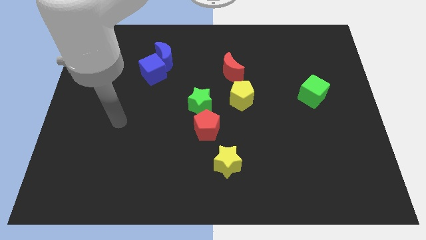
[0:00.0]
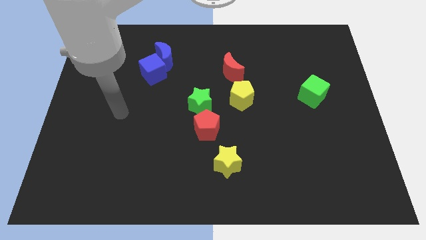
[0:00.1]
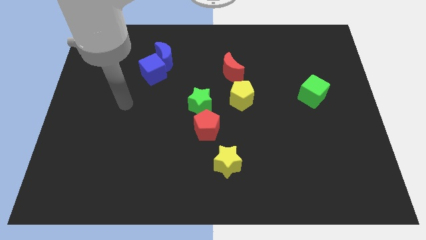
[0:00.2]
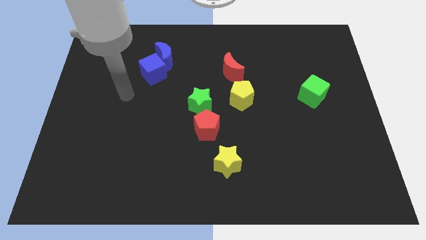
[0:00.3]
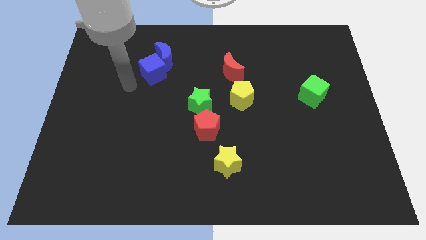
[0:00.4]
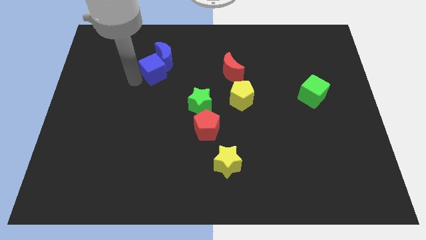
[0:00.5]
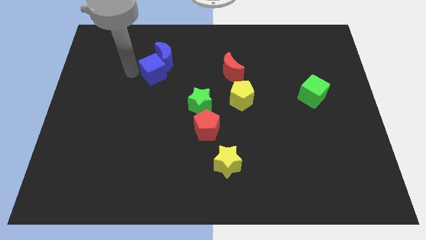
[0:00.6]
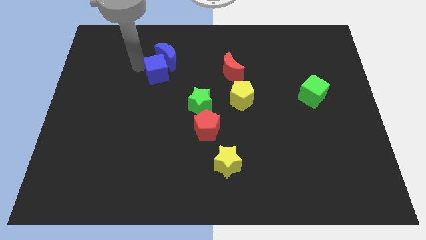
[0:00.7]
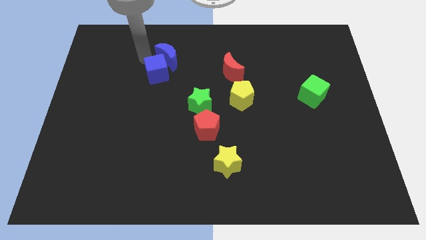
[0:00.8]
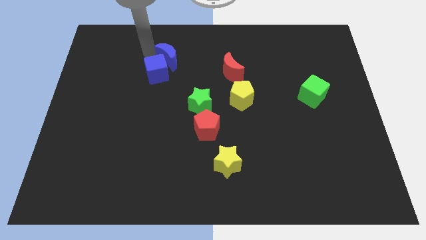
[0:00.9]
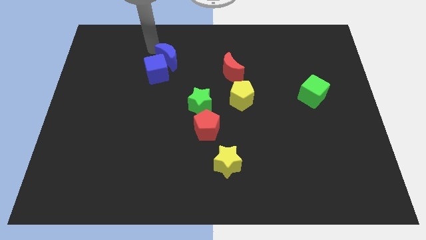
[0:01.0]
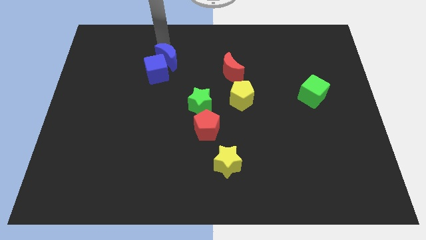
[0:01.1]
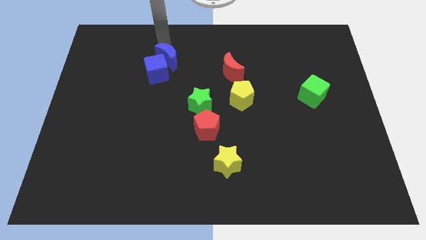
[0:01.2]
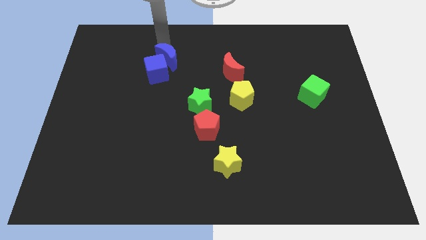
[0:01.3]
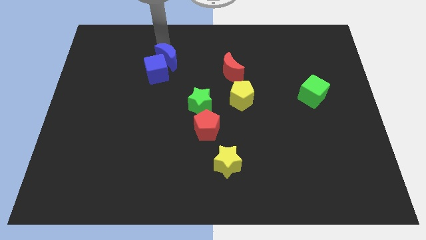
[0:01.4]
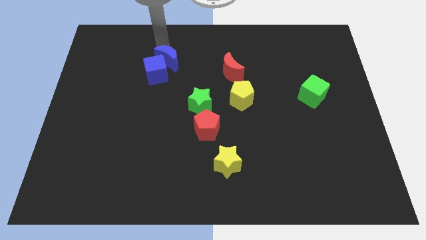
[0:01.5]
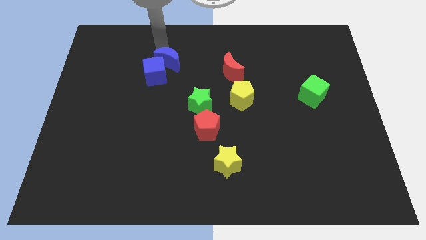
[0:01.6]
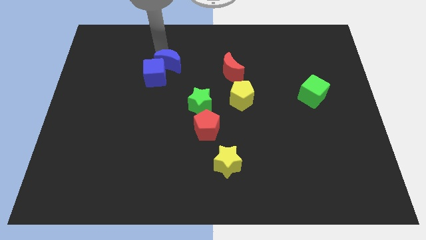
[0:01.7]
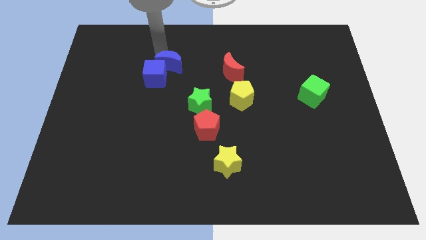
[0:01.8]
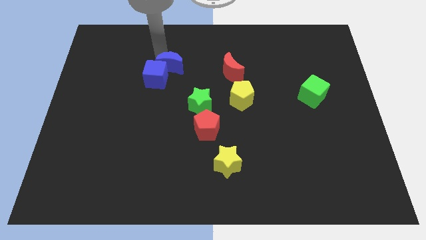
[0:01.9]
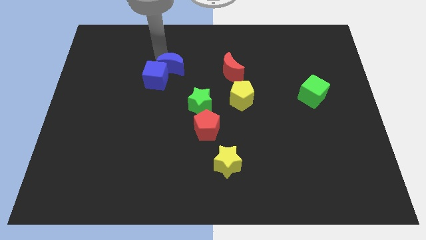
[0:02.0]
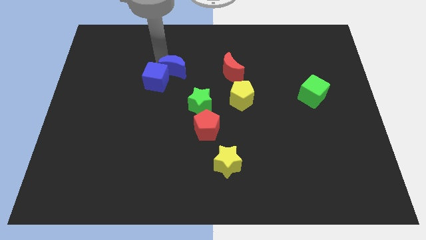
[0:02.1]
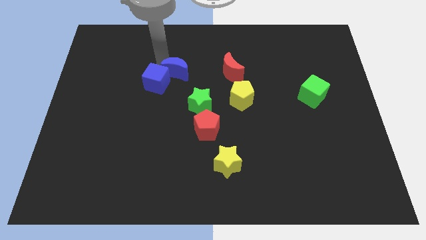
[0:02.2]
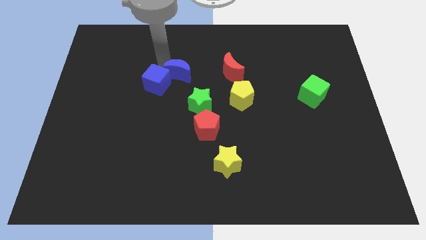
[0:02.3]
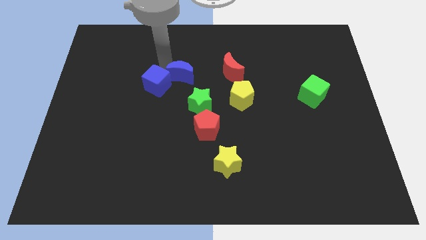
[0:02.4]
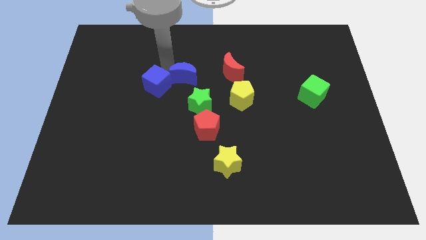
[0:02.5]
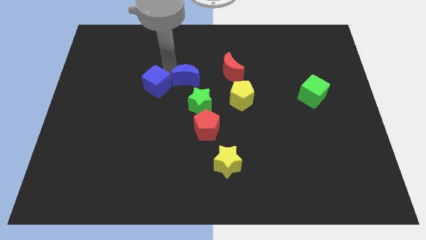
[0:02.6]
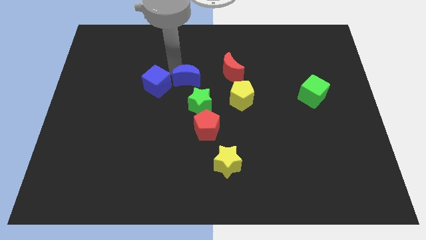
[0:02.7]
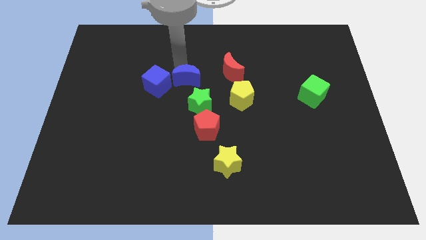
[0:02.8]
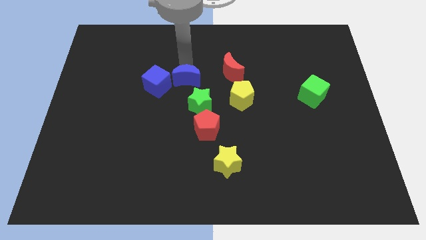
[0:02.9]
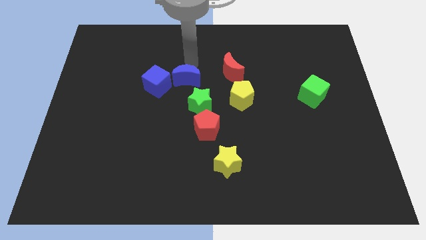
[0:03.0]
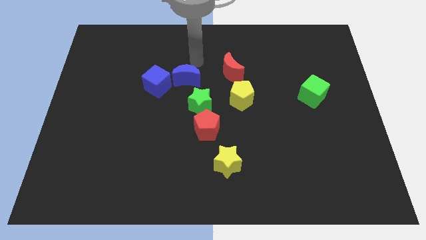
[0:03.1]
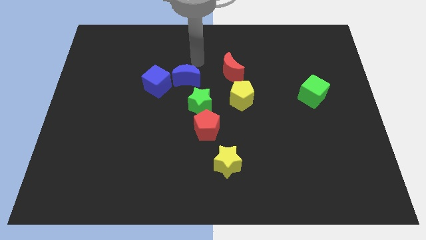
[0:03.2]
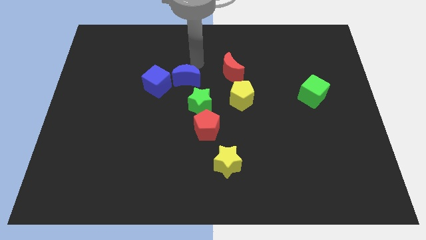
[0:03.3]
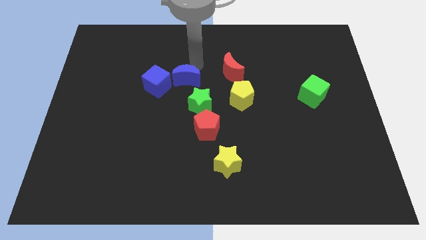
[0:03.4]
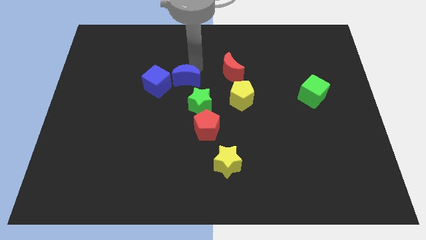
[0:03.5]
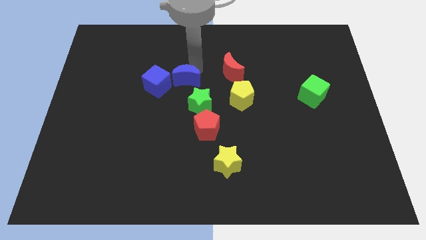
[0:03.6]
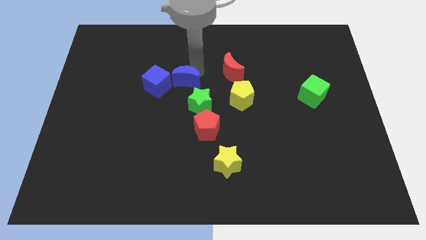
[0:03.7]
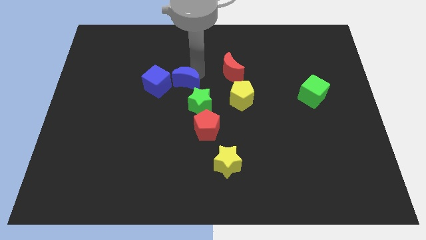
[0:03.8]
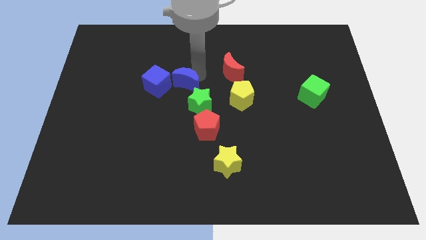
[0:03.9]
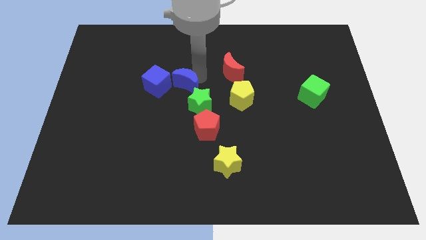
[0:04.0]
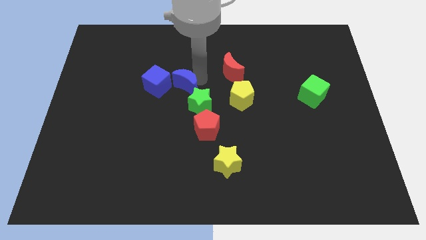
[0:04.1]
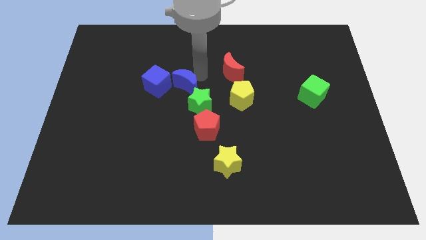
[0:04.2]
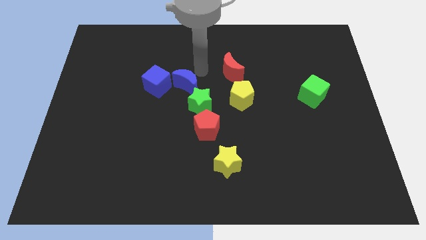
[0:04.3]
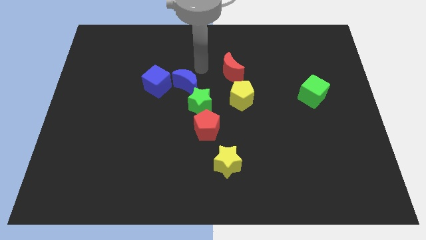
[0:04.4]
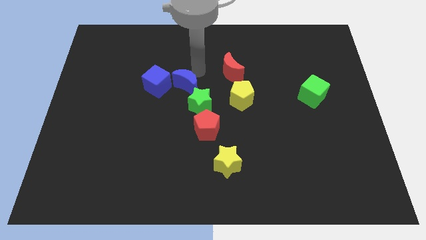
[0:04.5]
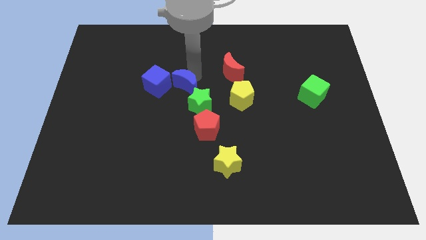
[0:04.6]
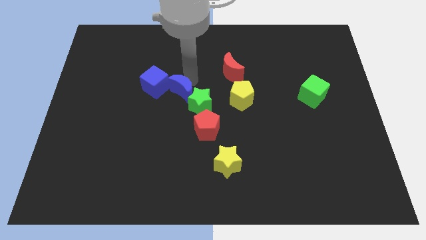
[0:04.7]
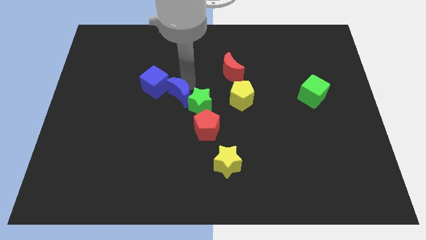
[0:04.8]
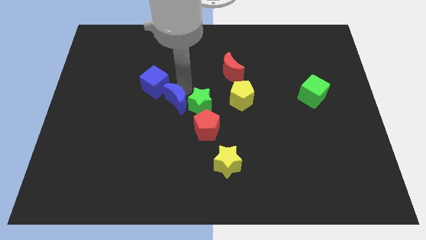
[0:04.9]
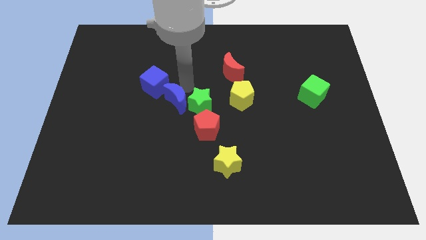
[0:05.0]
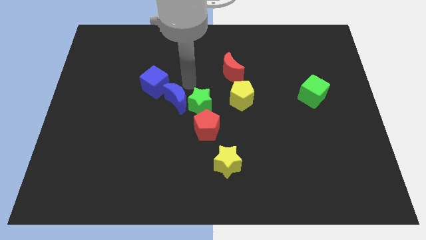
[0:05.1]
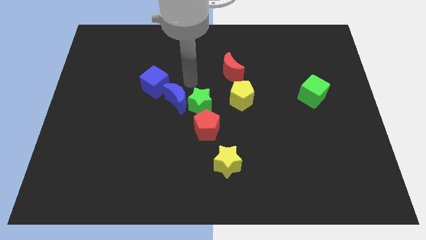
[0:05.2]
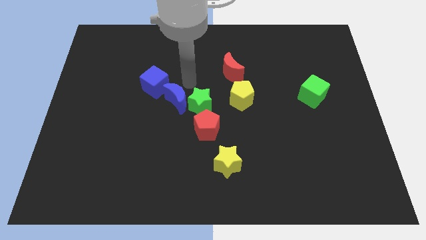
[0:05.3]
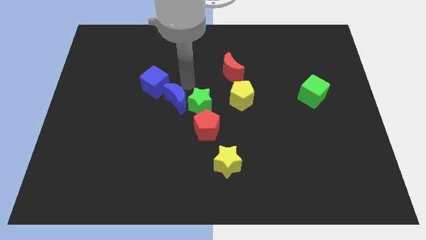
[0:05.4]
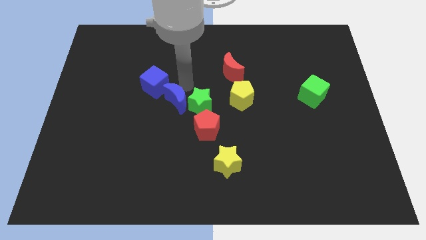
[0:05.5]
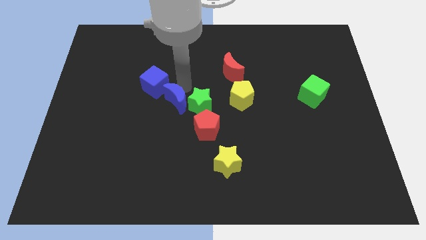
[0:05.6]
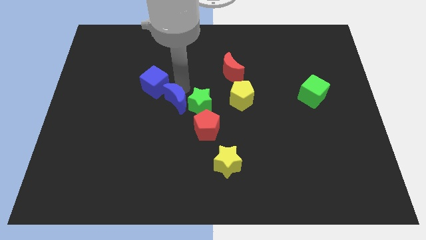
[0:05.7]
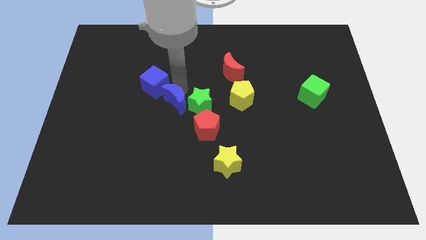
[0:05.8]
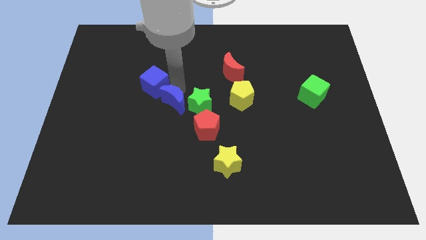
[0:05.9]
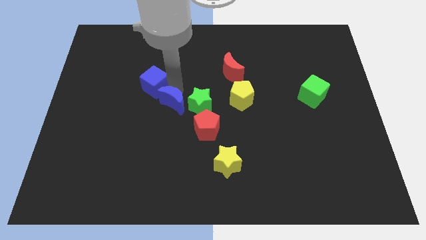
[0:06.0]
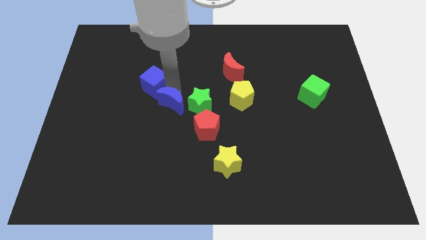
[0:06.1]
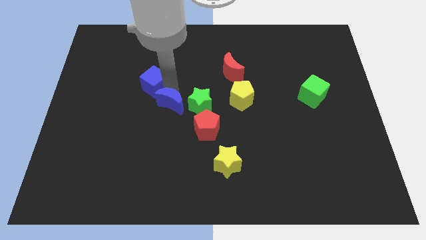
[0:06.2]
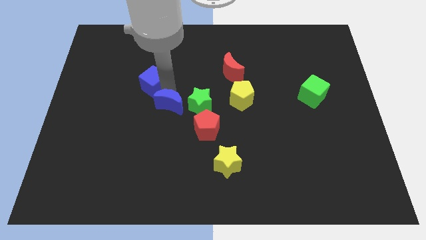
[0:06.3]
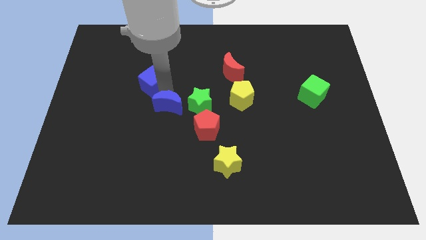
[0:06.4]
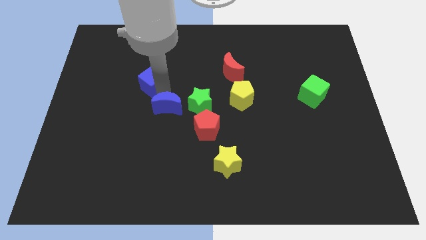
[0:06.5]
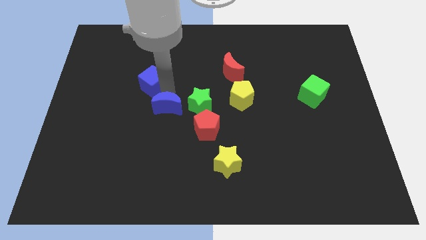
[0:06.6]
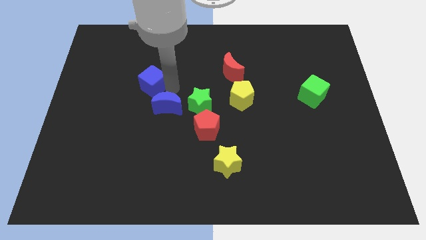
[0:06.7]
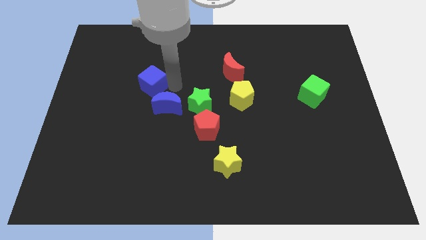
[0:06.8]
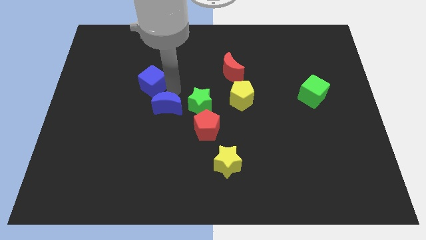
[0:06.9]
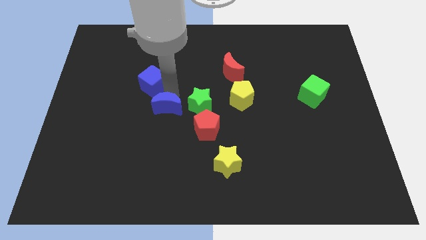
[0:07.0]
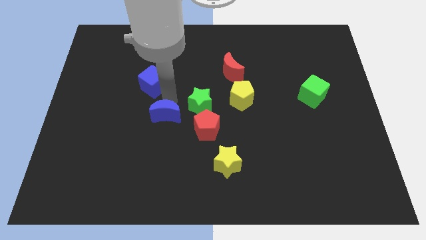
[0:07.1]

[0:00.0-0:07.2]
push the blue moon to the left of the red pentagon
